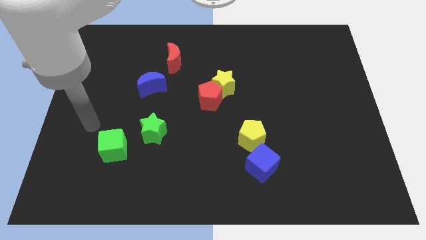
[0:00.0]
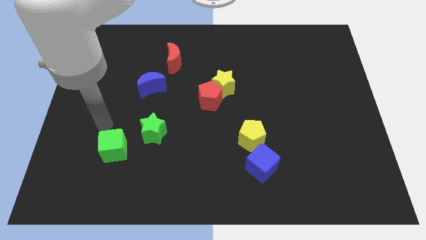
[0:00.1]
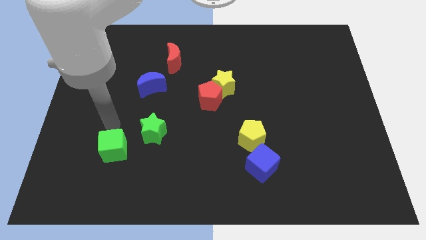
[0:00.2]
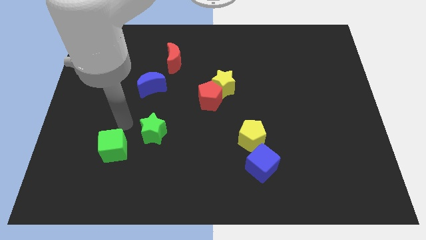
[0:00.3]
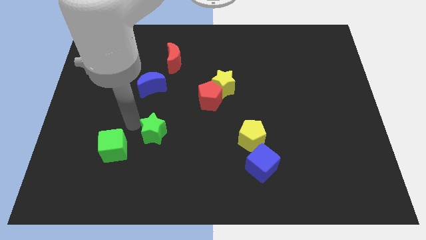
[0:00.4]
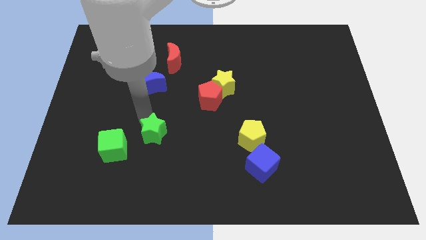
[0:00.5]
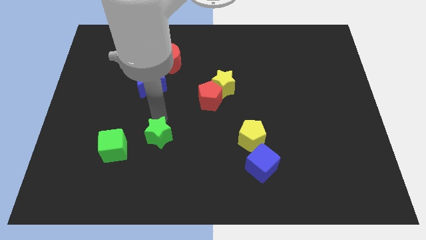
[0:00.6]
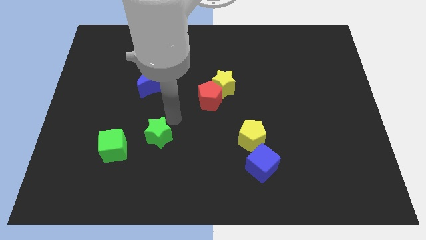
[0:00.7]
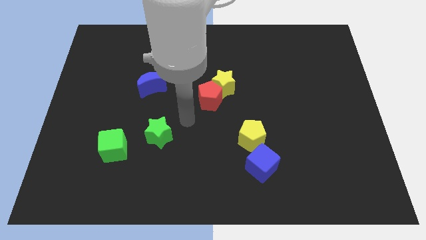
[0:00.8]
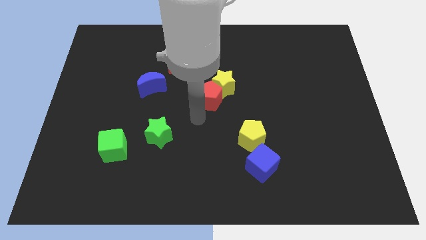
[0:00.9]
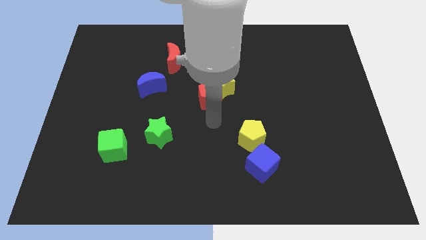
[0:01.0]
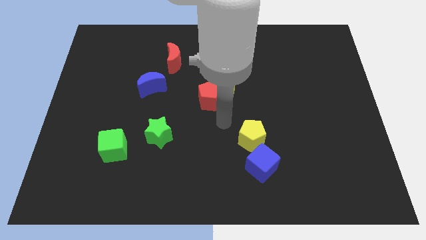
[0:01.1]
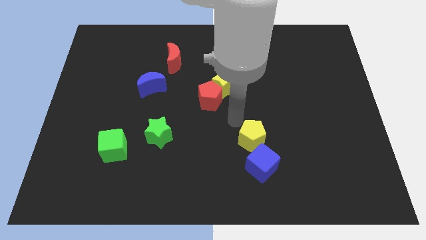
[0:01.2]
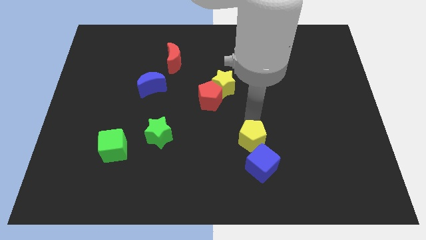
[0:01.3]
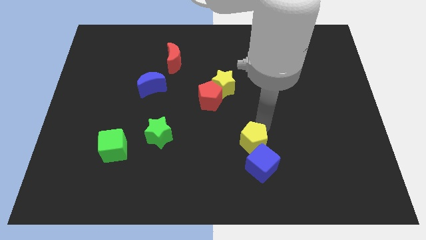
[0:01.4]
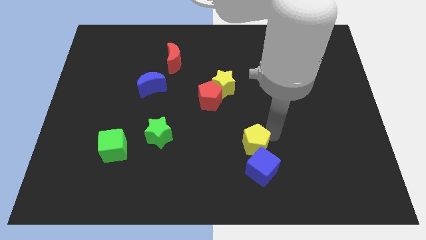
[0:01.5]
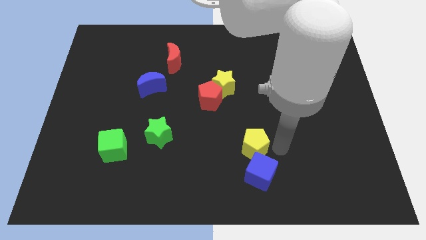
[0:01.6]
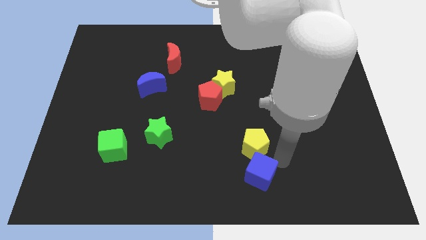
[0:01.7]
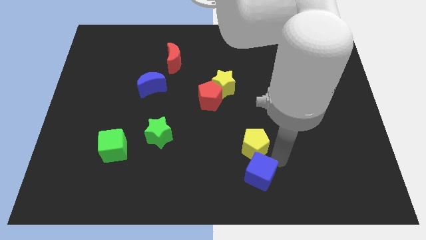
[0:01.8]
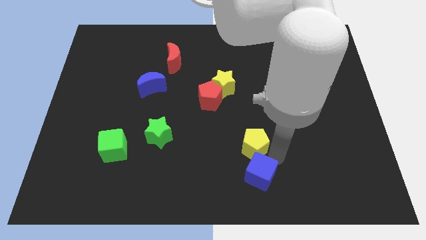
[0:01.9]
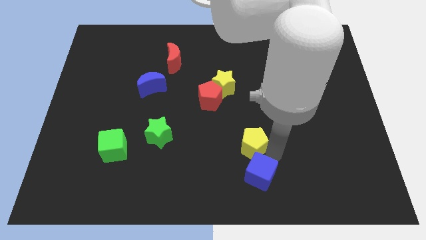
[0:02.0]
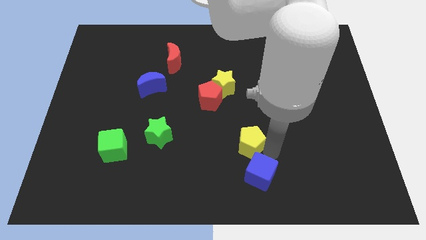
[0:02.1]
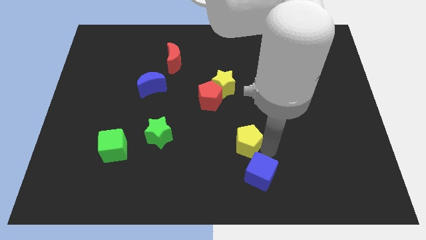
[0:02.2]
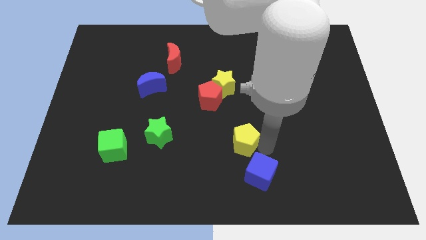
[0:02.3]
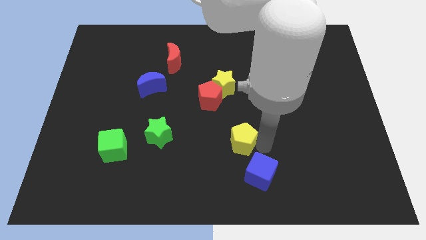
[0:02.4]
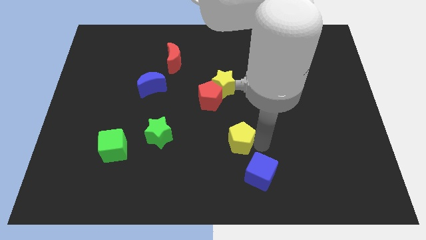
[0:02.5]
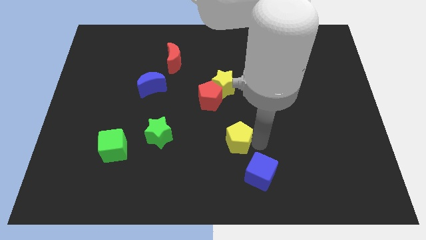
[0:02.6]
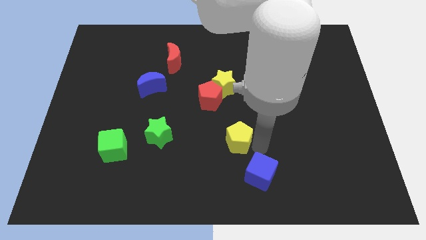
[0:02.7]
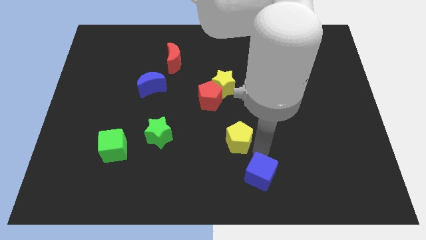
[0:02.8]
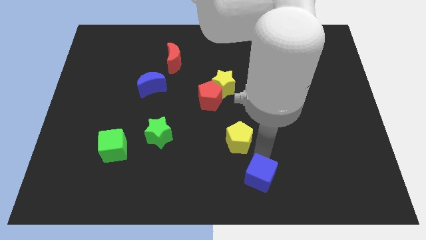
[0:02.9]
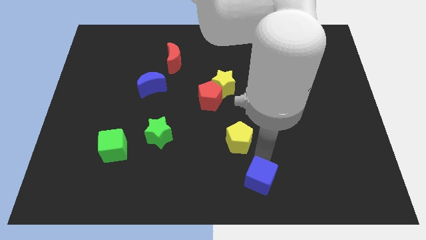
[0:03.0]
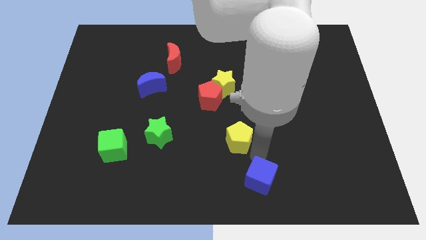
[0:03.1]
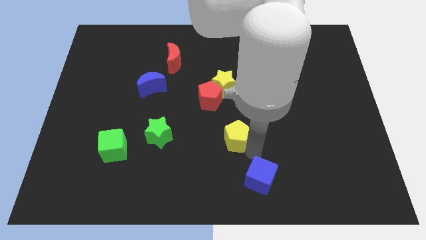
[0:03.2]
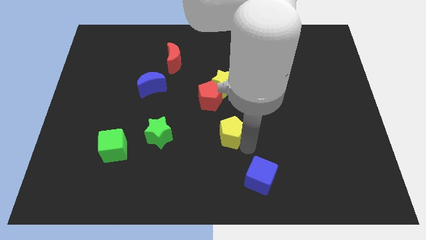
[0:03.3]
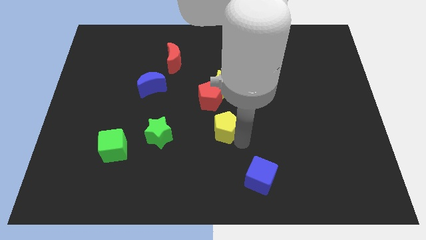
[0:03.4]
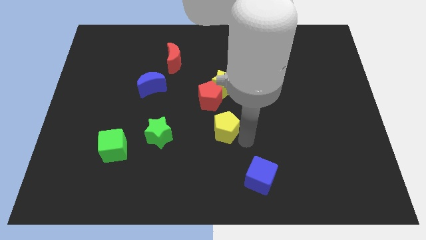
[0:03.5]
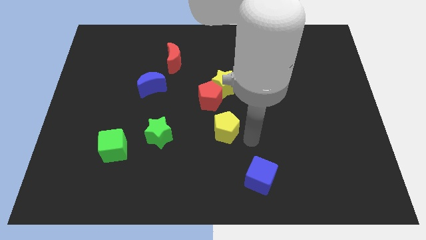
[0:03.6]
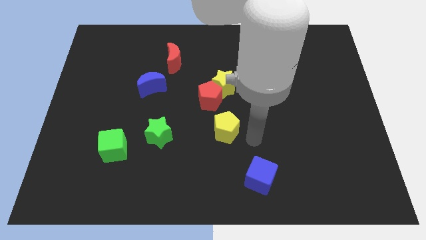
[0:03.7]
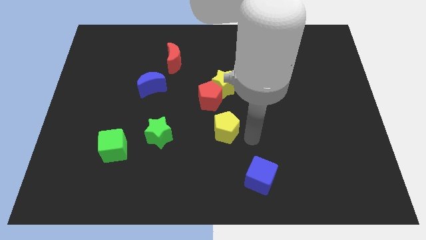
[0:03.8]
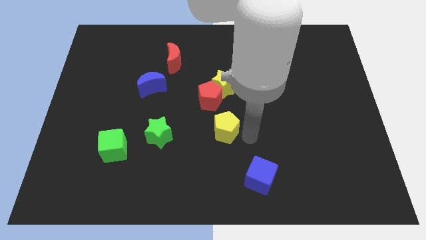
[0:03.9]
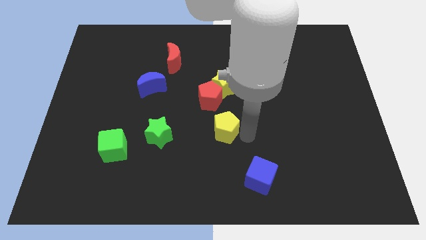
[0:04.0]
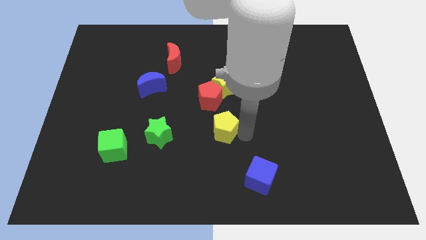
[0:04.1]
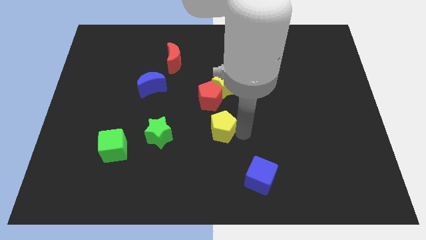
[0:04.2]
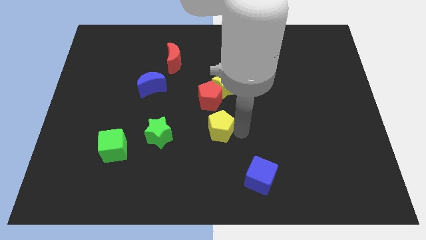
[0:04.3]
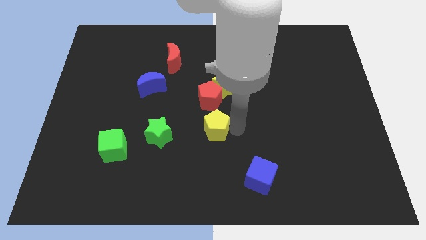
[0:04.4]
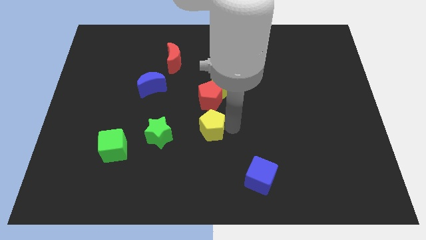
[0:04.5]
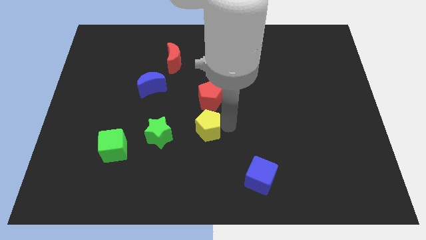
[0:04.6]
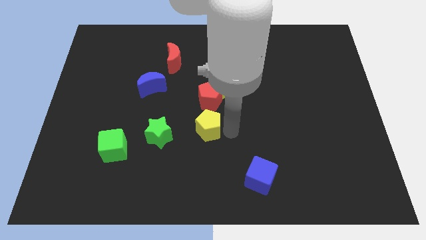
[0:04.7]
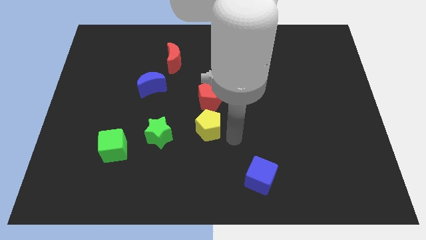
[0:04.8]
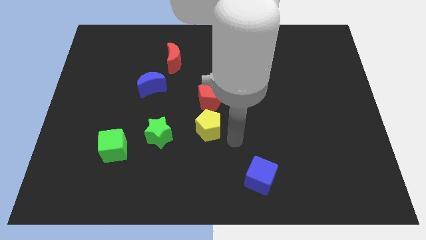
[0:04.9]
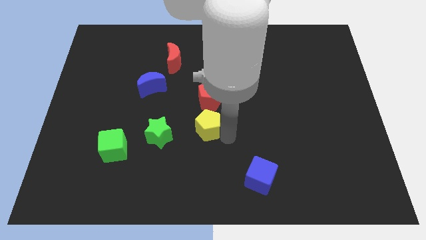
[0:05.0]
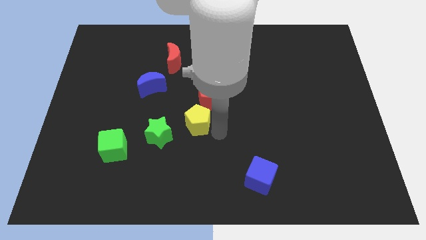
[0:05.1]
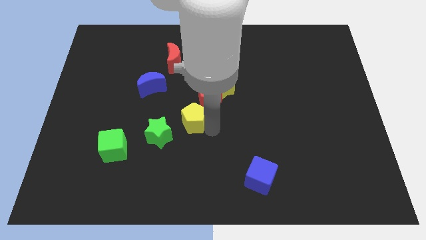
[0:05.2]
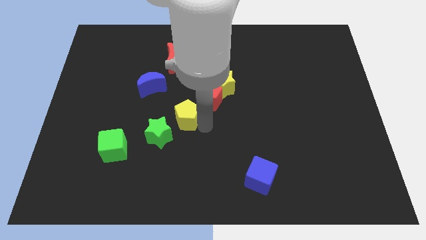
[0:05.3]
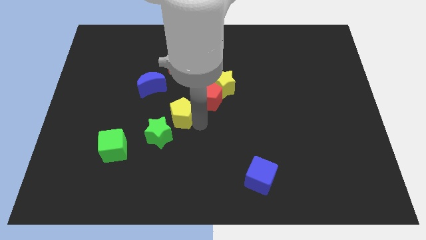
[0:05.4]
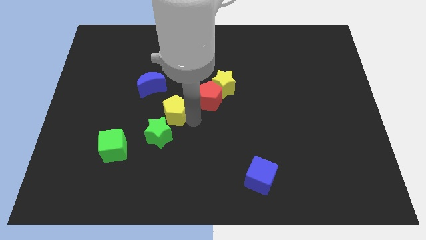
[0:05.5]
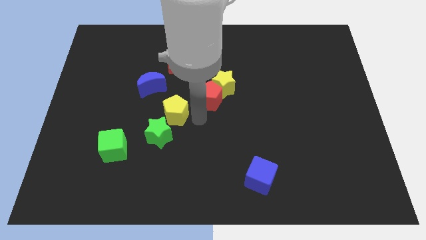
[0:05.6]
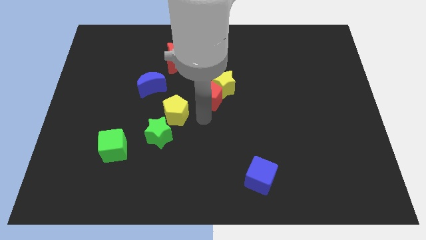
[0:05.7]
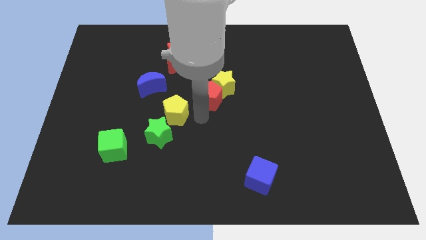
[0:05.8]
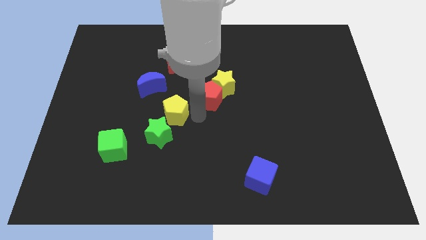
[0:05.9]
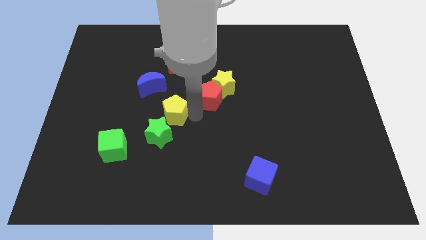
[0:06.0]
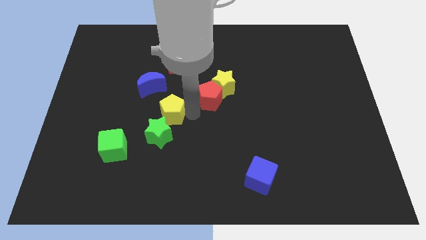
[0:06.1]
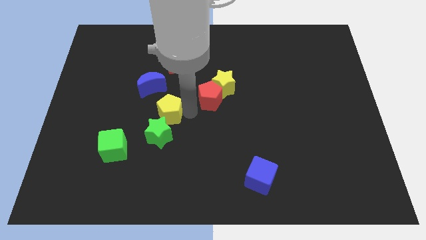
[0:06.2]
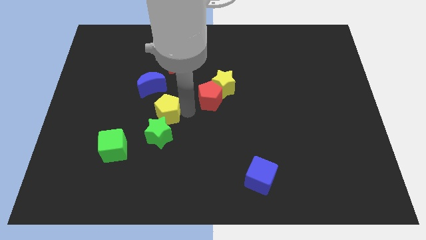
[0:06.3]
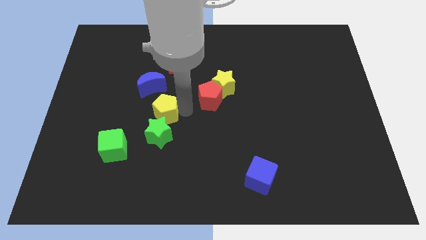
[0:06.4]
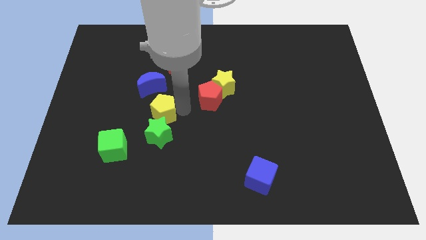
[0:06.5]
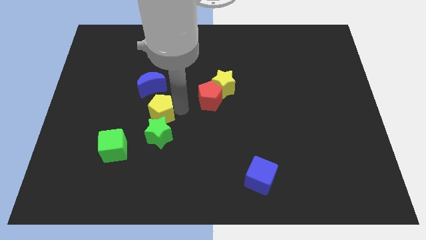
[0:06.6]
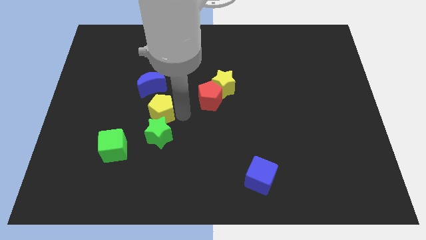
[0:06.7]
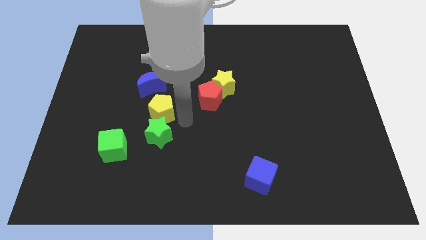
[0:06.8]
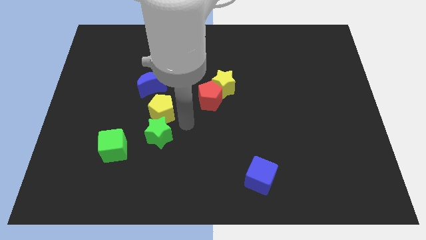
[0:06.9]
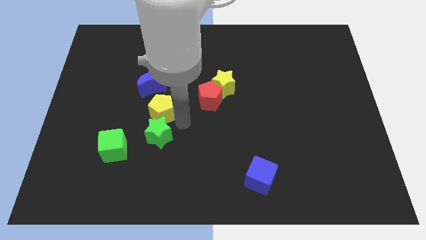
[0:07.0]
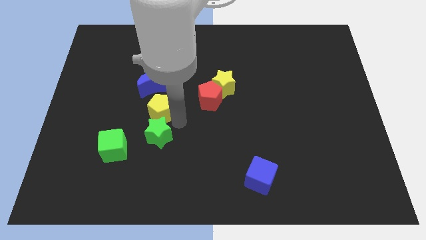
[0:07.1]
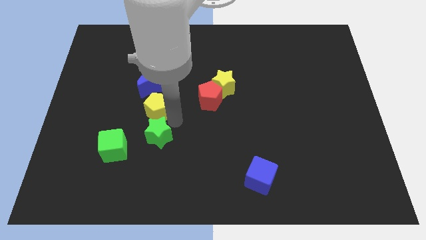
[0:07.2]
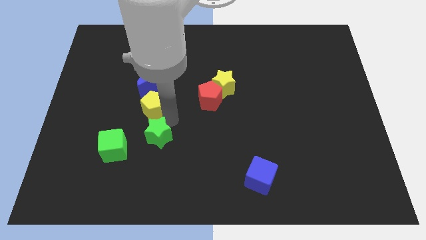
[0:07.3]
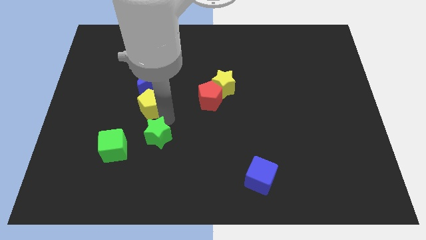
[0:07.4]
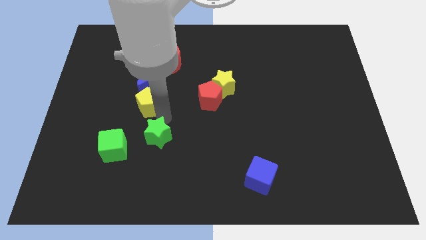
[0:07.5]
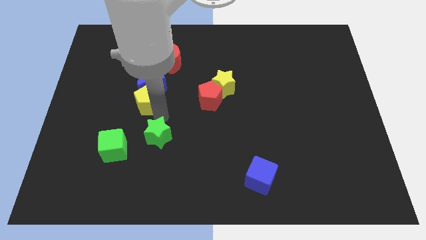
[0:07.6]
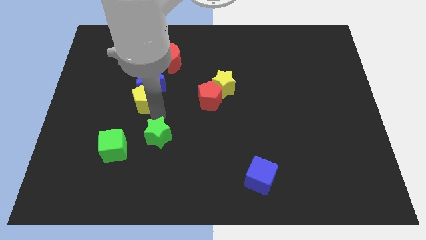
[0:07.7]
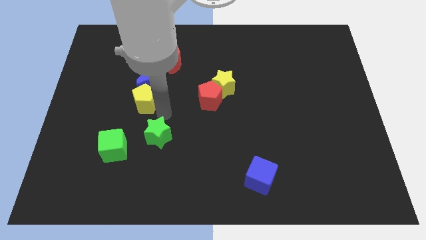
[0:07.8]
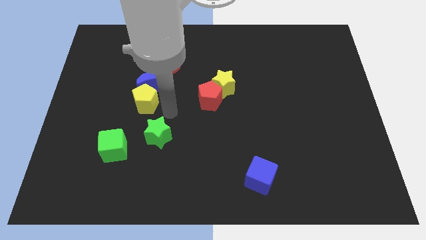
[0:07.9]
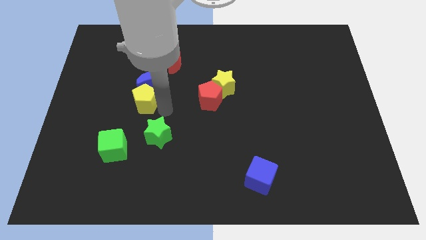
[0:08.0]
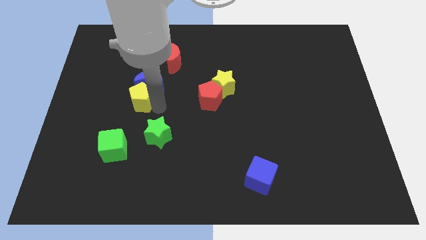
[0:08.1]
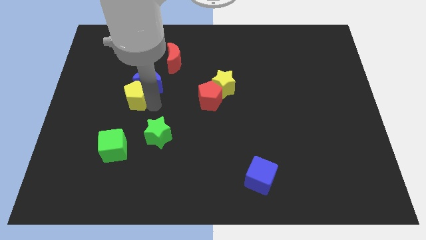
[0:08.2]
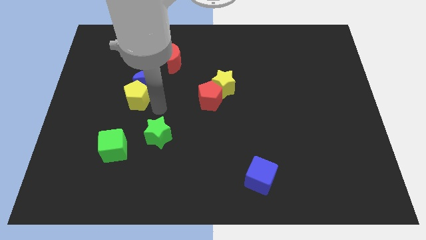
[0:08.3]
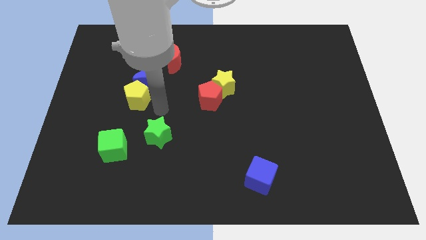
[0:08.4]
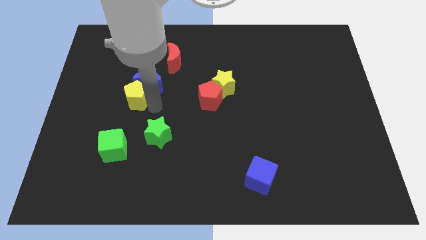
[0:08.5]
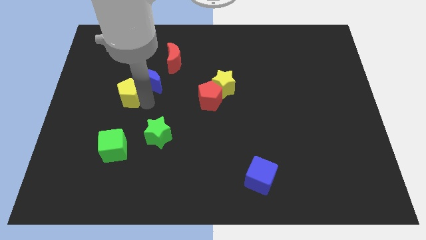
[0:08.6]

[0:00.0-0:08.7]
slide the yellow pentagon to the left side of the blue moon
